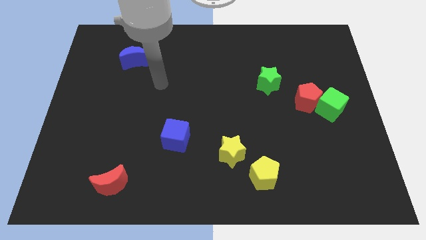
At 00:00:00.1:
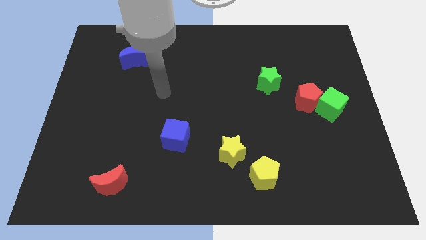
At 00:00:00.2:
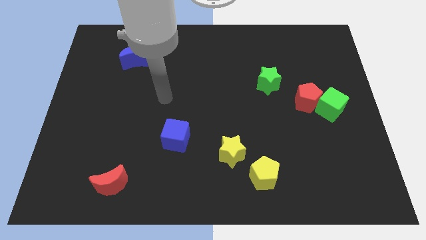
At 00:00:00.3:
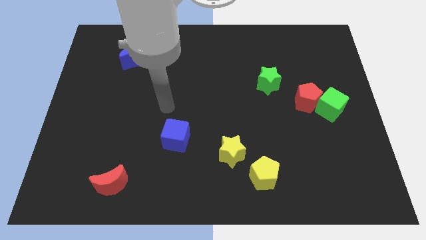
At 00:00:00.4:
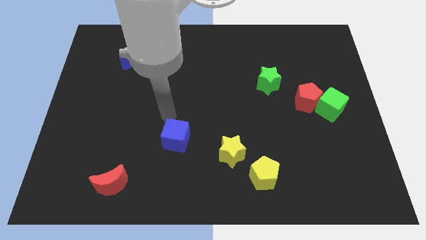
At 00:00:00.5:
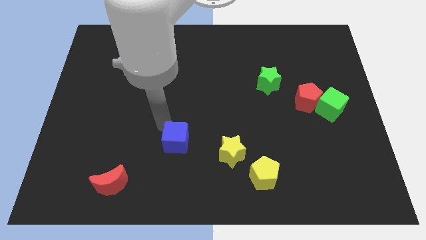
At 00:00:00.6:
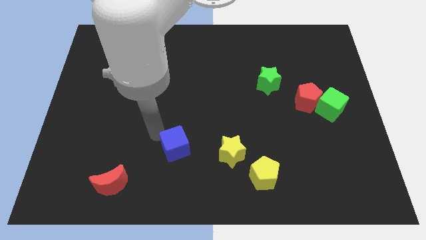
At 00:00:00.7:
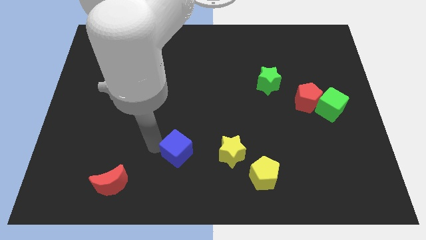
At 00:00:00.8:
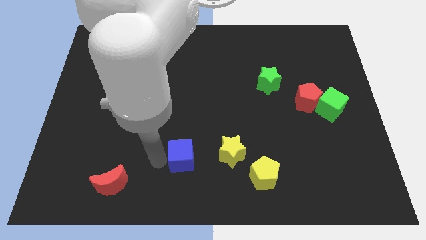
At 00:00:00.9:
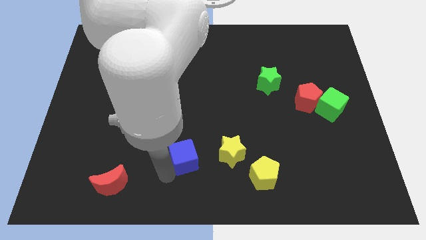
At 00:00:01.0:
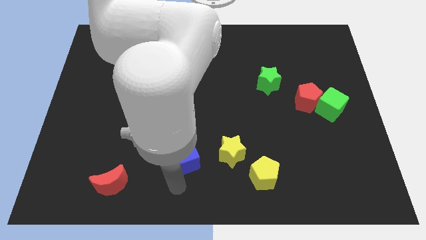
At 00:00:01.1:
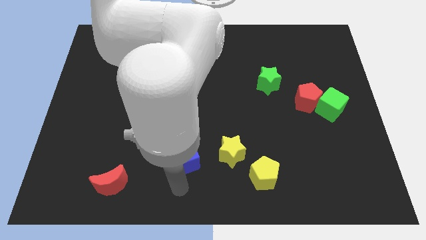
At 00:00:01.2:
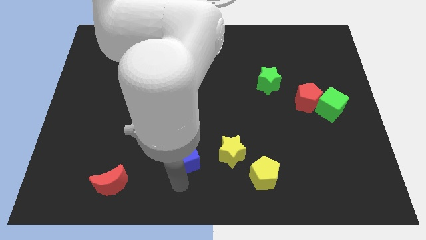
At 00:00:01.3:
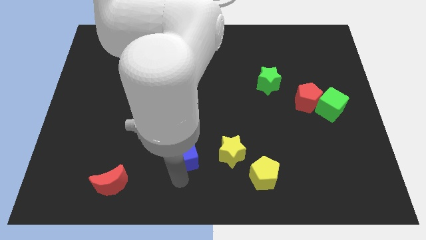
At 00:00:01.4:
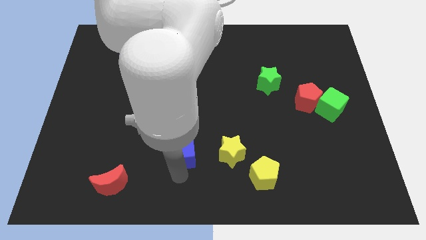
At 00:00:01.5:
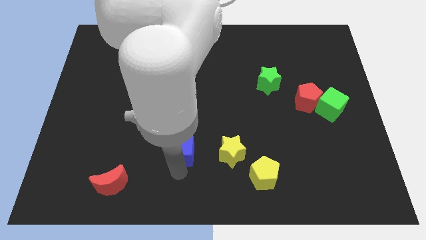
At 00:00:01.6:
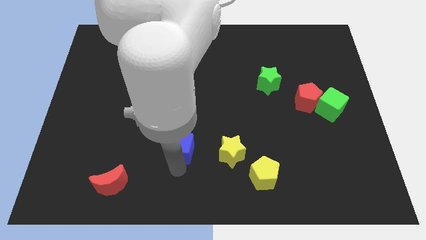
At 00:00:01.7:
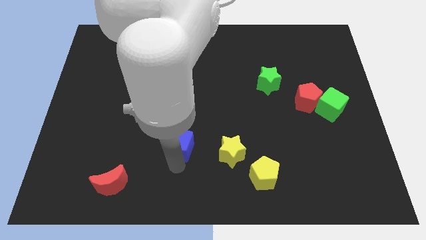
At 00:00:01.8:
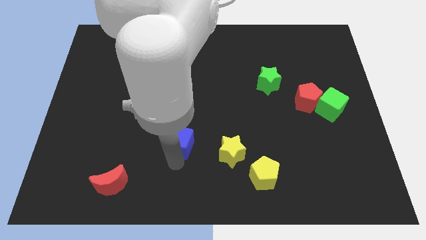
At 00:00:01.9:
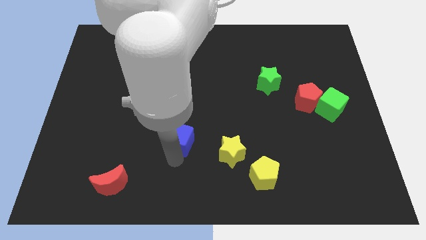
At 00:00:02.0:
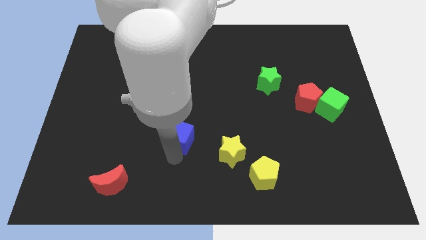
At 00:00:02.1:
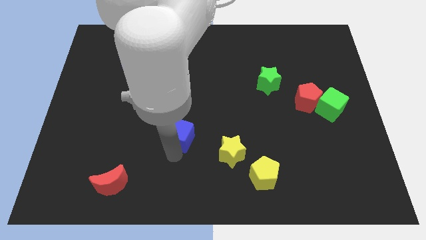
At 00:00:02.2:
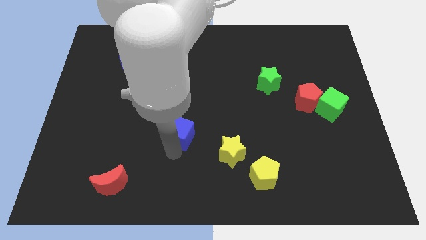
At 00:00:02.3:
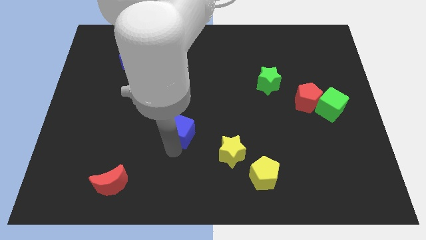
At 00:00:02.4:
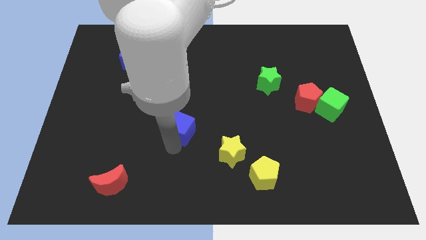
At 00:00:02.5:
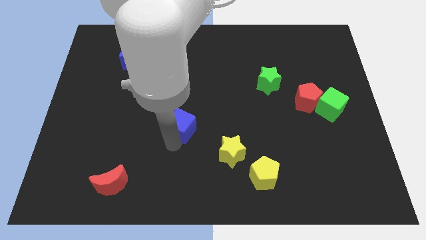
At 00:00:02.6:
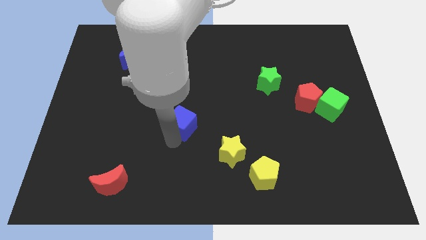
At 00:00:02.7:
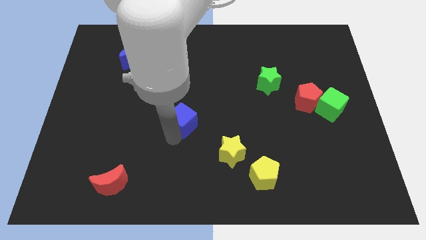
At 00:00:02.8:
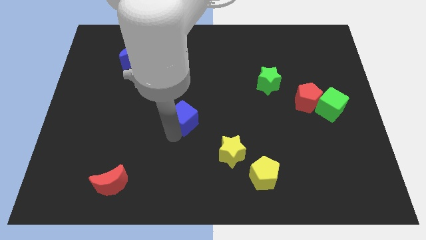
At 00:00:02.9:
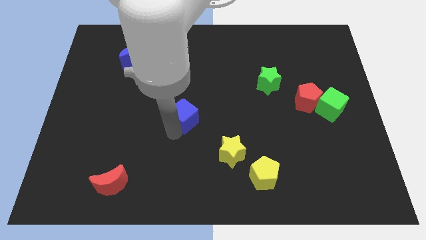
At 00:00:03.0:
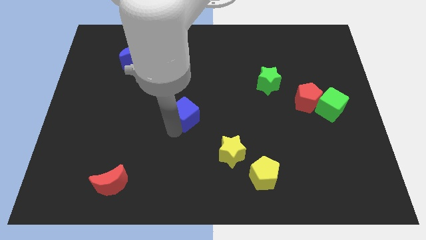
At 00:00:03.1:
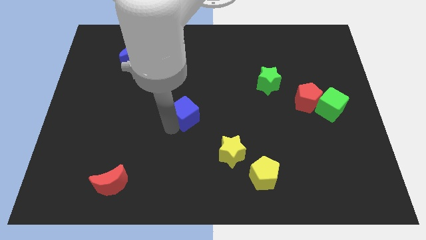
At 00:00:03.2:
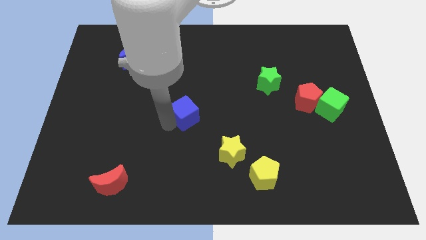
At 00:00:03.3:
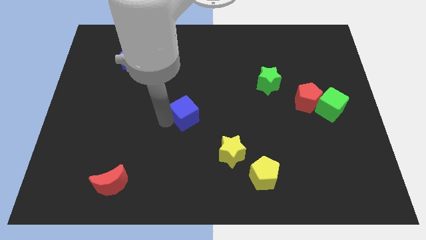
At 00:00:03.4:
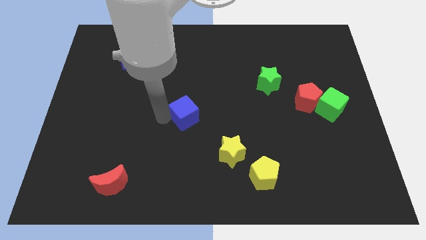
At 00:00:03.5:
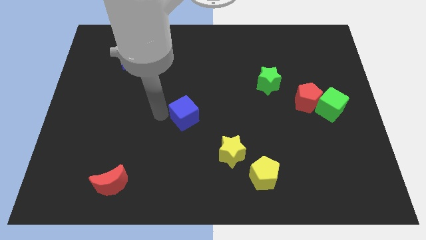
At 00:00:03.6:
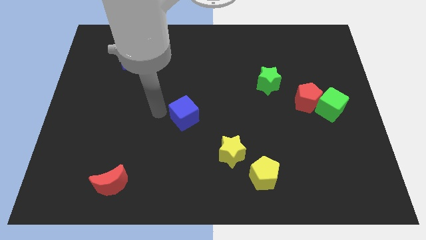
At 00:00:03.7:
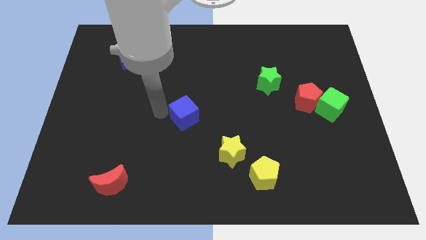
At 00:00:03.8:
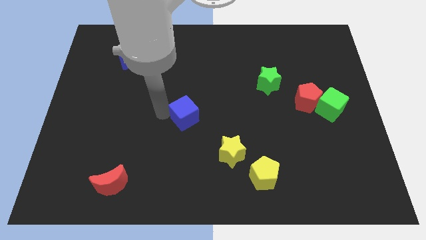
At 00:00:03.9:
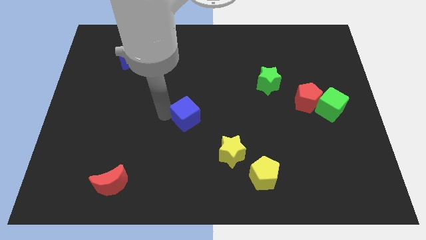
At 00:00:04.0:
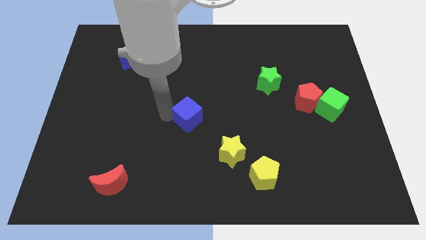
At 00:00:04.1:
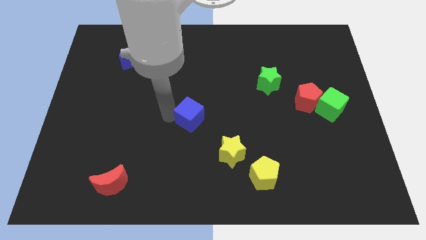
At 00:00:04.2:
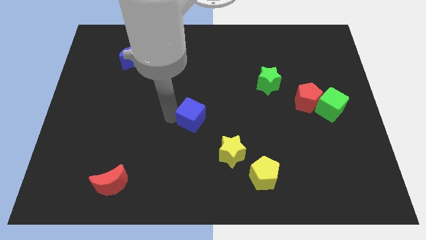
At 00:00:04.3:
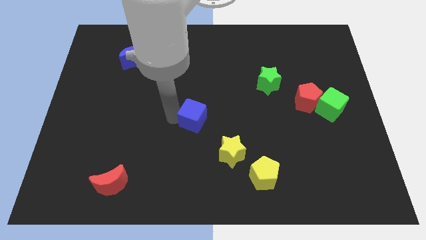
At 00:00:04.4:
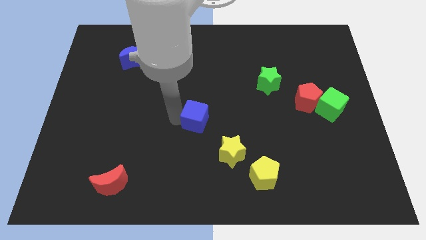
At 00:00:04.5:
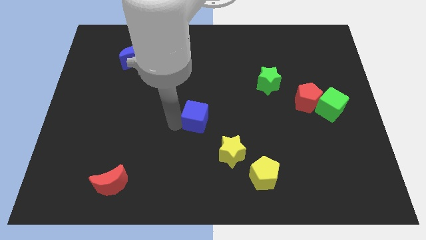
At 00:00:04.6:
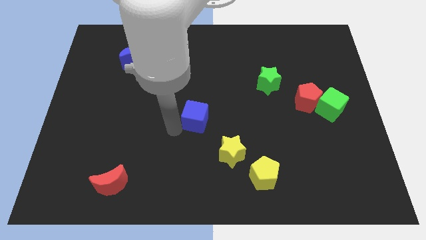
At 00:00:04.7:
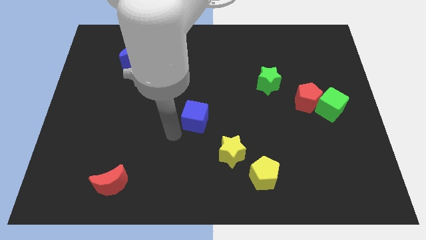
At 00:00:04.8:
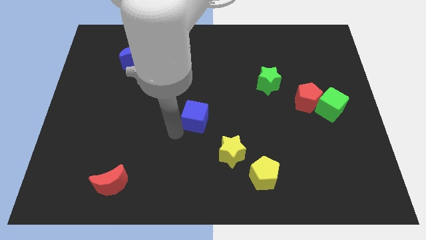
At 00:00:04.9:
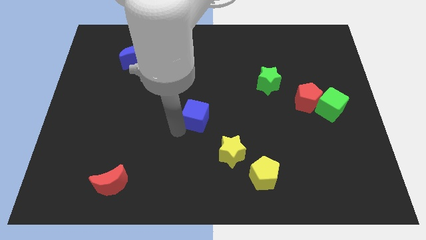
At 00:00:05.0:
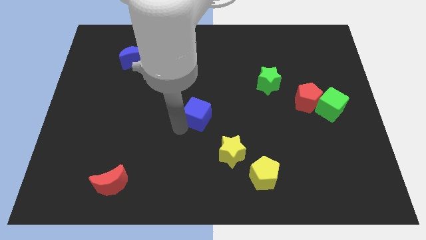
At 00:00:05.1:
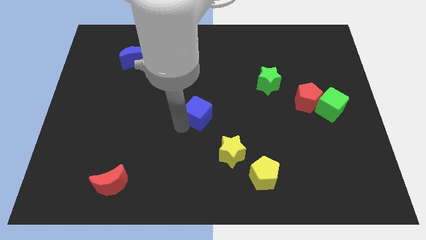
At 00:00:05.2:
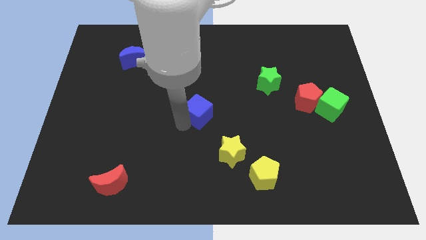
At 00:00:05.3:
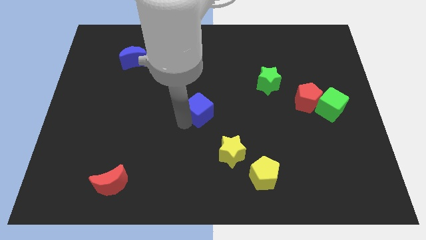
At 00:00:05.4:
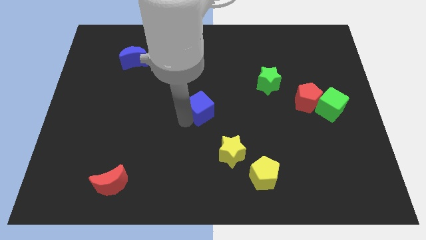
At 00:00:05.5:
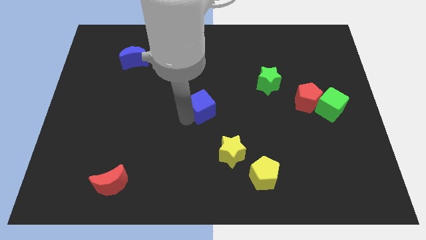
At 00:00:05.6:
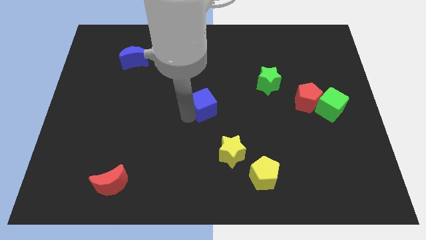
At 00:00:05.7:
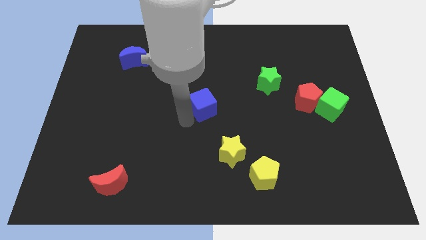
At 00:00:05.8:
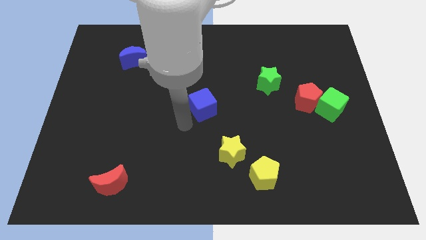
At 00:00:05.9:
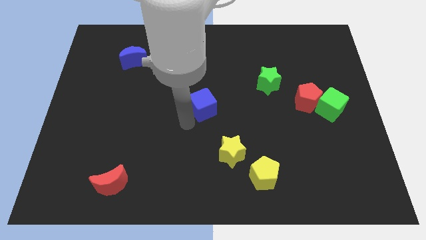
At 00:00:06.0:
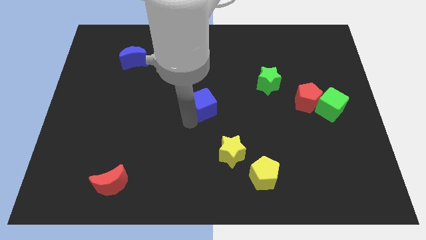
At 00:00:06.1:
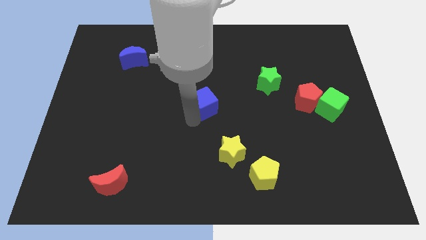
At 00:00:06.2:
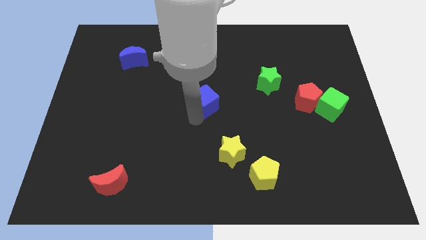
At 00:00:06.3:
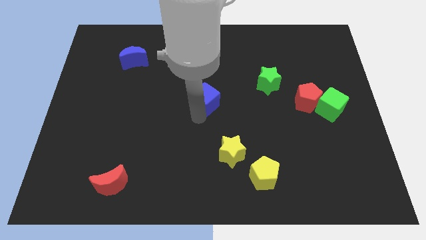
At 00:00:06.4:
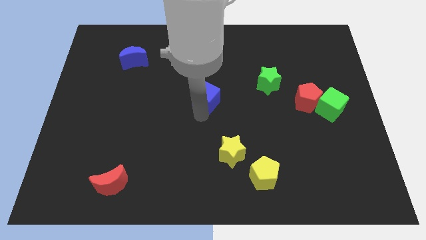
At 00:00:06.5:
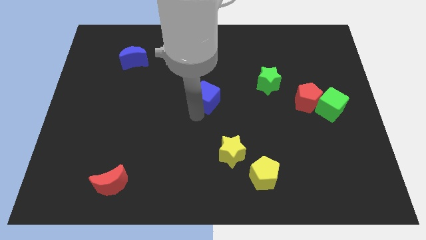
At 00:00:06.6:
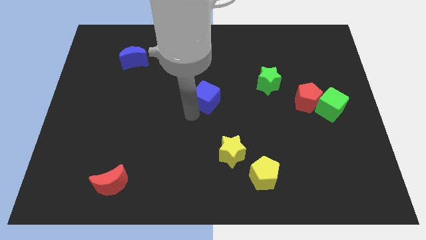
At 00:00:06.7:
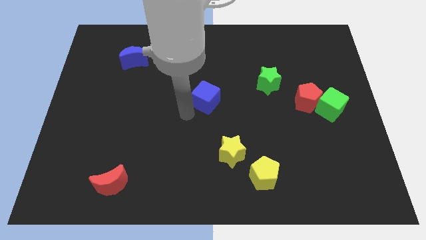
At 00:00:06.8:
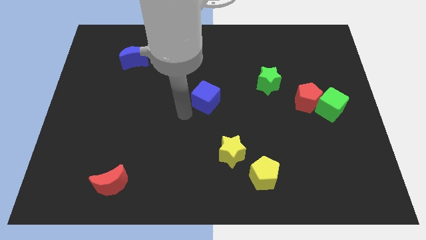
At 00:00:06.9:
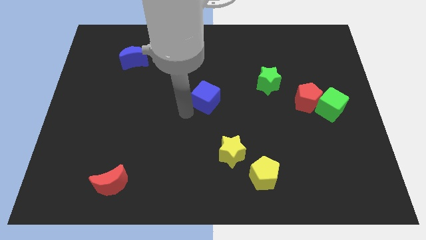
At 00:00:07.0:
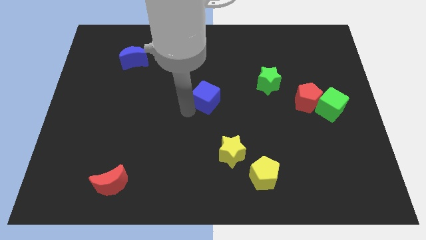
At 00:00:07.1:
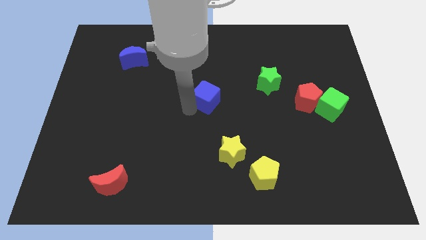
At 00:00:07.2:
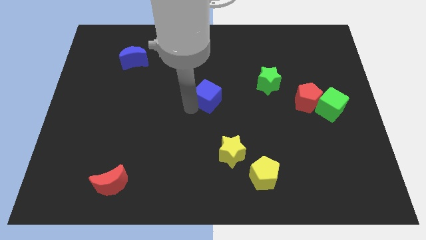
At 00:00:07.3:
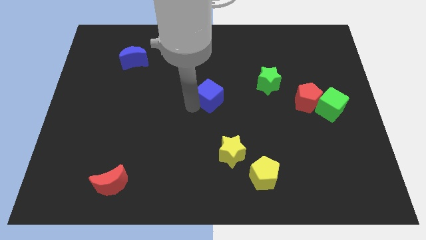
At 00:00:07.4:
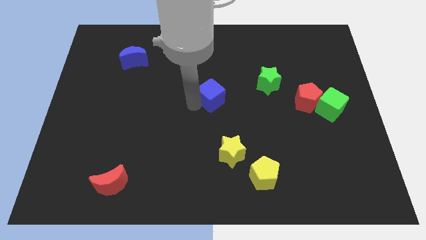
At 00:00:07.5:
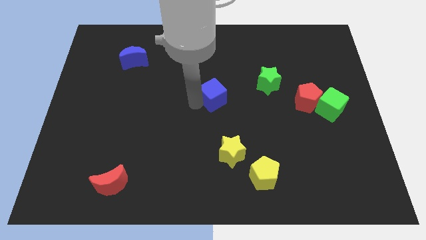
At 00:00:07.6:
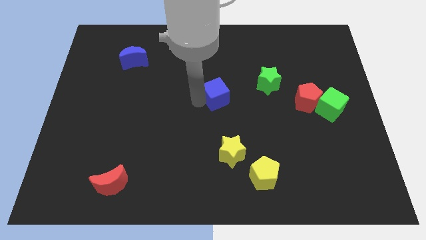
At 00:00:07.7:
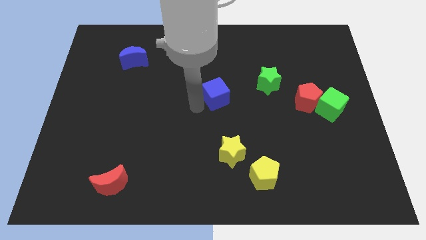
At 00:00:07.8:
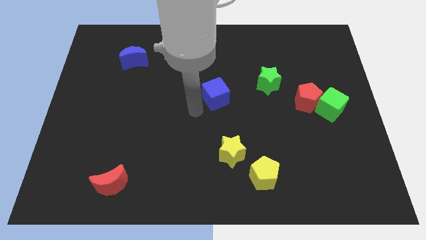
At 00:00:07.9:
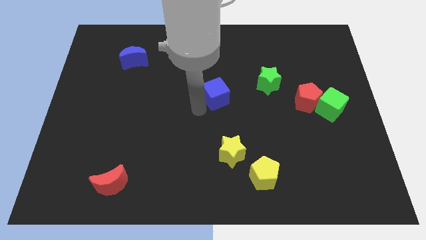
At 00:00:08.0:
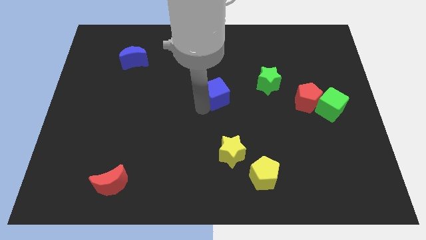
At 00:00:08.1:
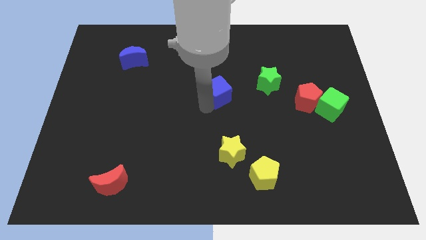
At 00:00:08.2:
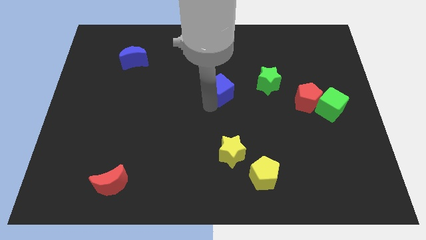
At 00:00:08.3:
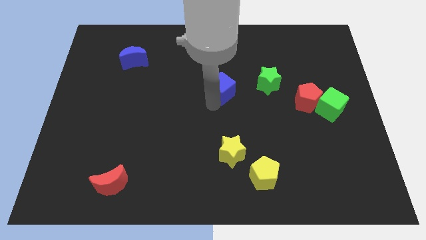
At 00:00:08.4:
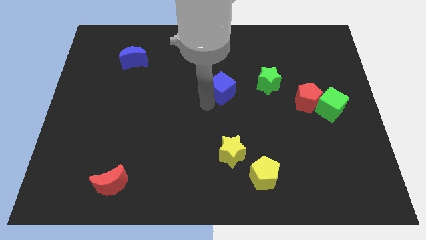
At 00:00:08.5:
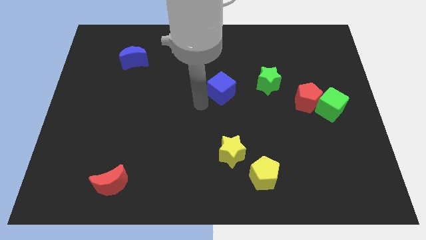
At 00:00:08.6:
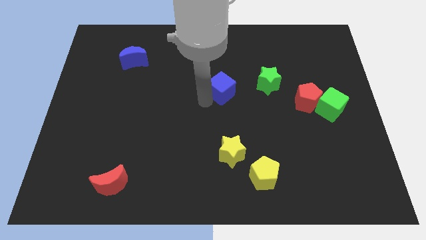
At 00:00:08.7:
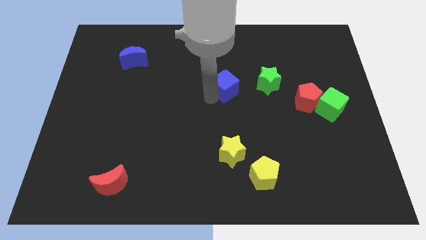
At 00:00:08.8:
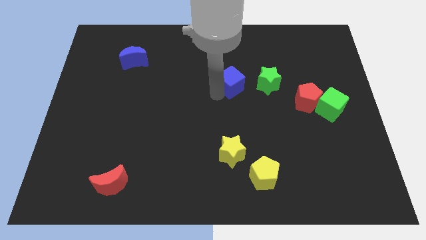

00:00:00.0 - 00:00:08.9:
slide the blue cube upwards and to the right diagonally
